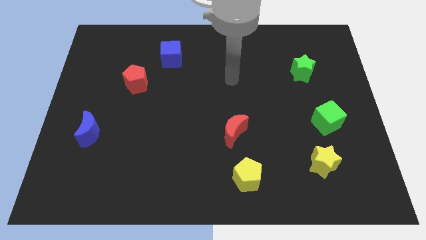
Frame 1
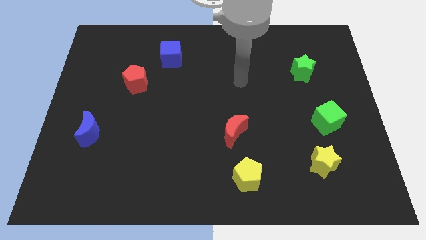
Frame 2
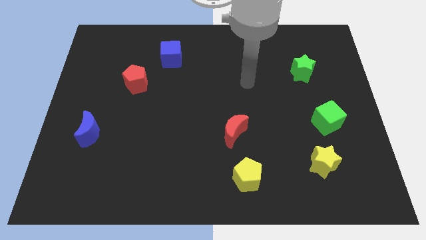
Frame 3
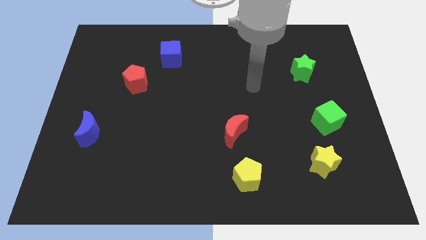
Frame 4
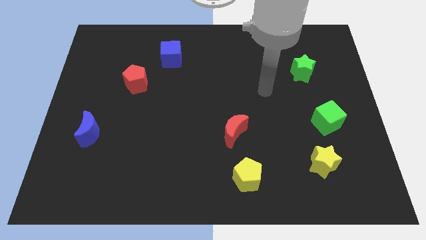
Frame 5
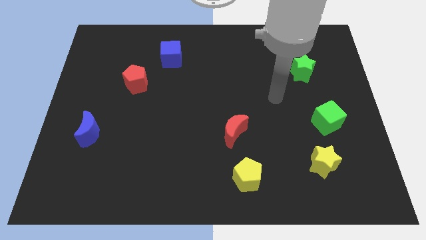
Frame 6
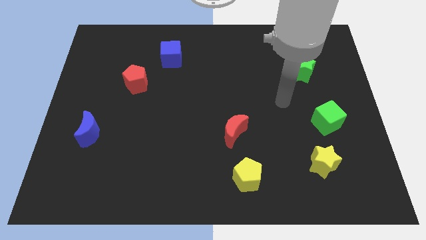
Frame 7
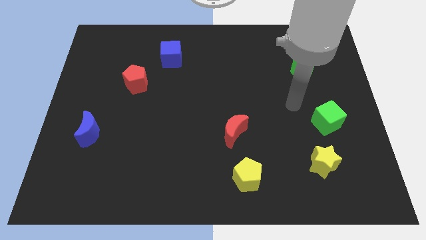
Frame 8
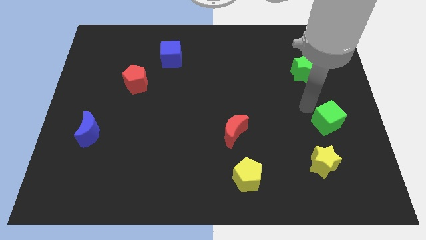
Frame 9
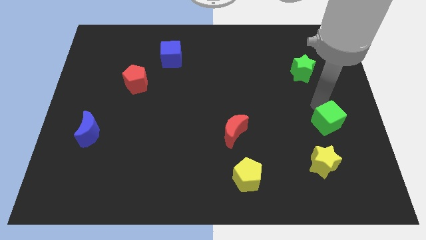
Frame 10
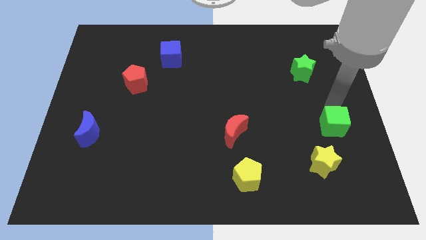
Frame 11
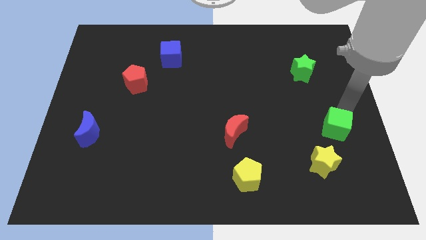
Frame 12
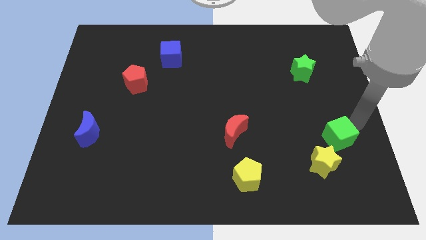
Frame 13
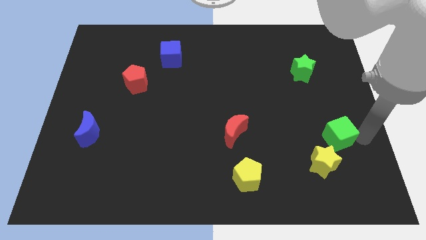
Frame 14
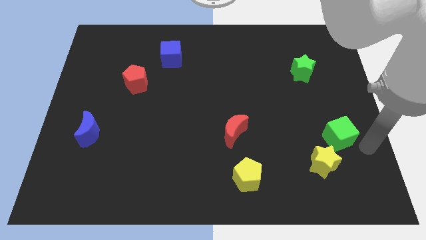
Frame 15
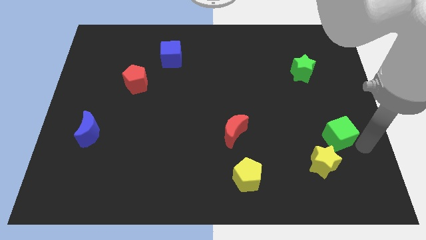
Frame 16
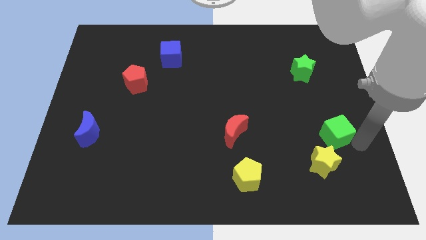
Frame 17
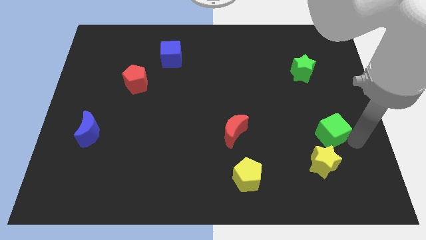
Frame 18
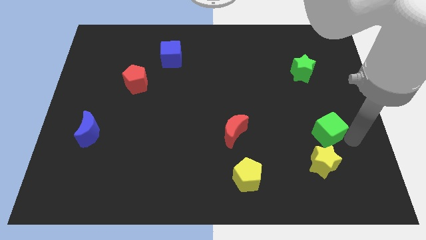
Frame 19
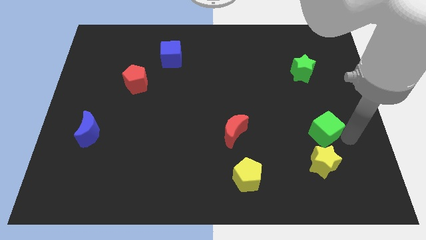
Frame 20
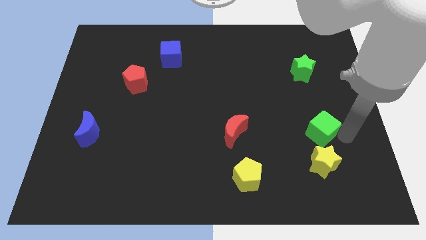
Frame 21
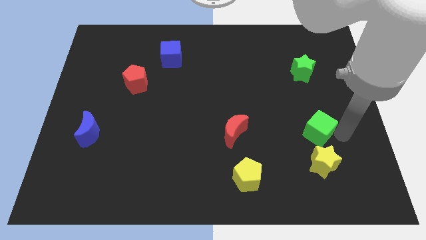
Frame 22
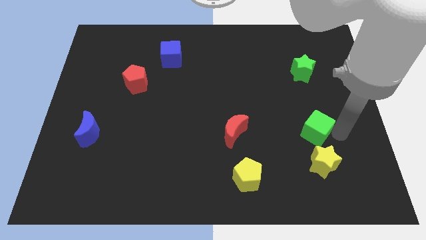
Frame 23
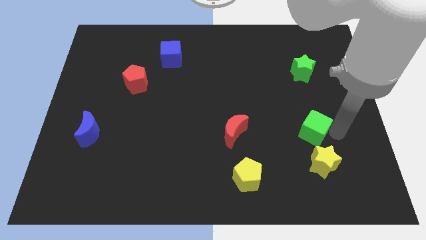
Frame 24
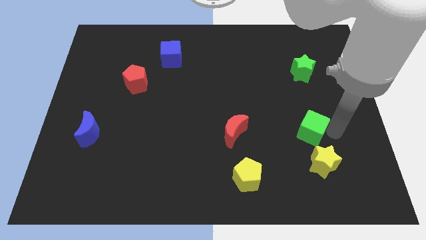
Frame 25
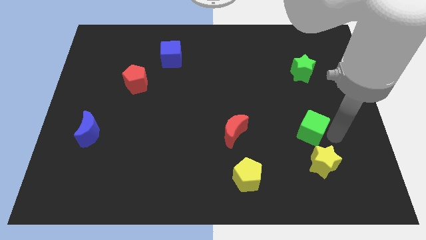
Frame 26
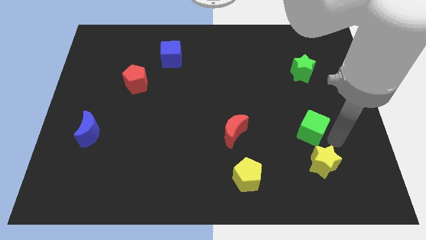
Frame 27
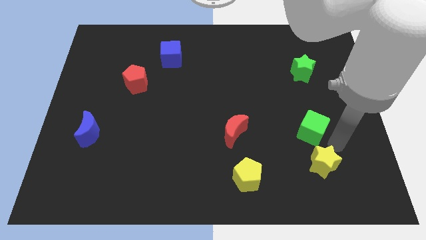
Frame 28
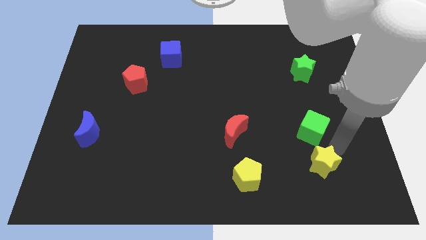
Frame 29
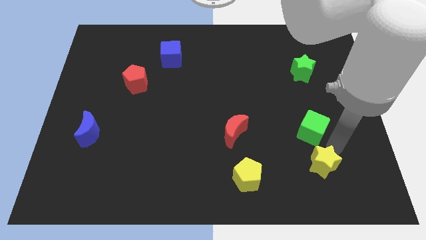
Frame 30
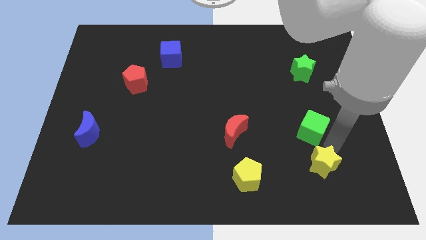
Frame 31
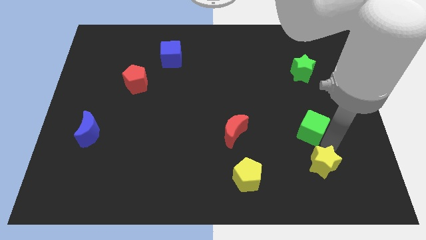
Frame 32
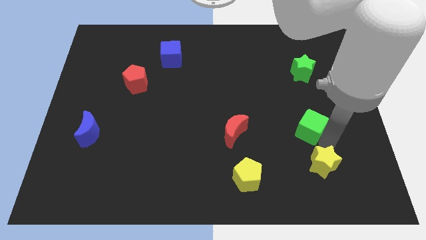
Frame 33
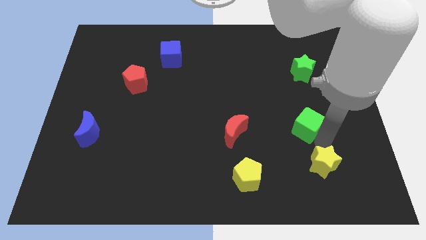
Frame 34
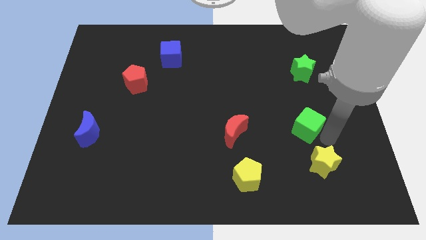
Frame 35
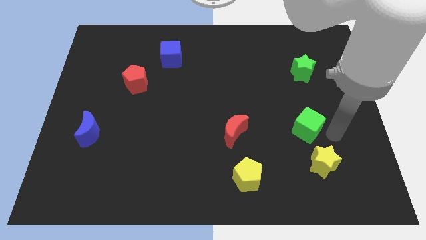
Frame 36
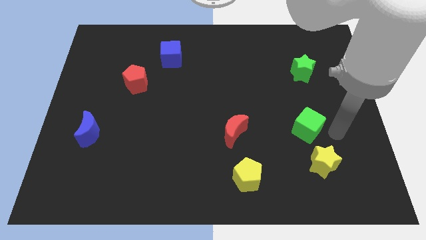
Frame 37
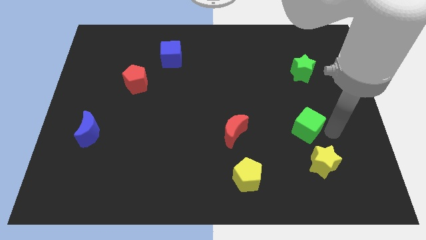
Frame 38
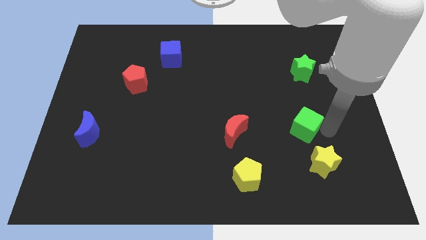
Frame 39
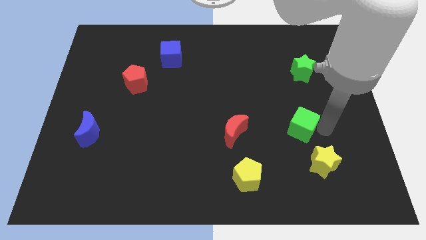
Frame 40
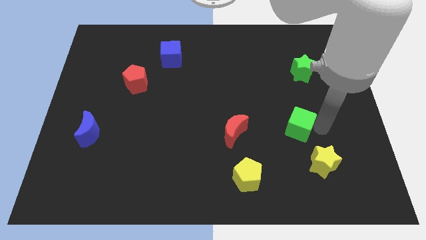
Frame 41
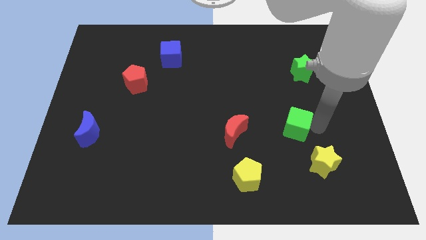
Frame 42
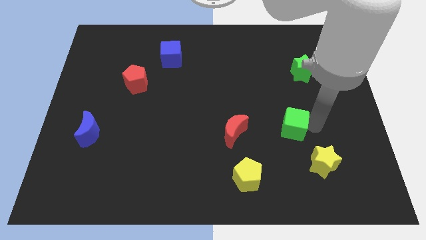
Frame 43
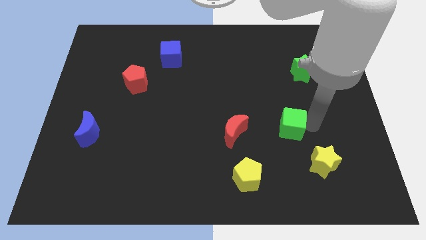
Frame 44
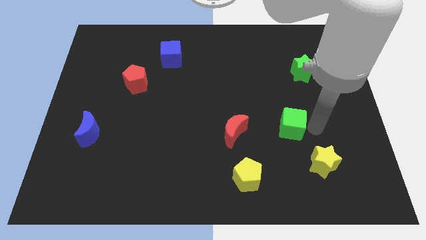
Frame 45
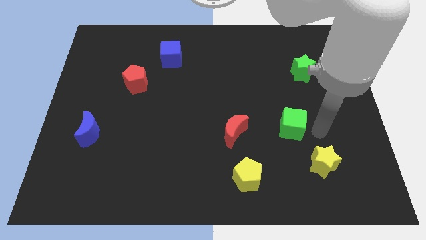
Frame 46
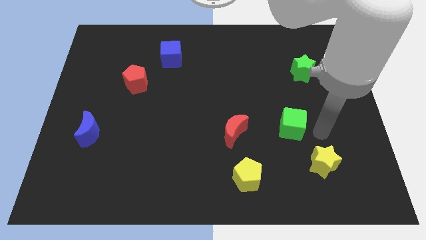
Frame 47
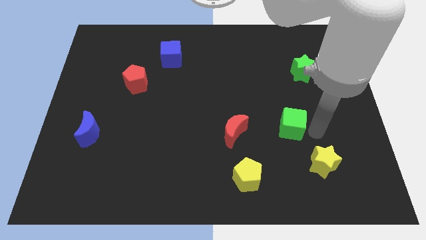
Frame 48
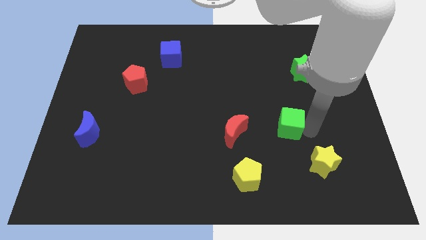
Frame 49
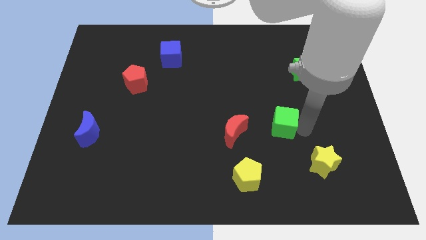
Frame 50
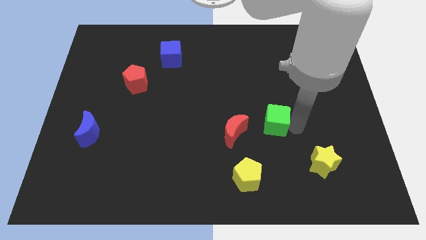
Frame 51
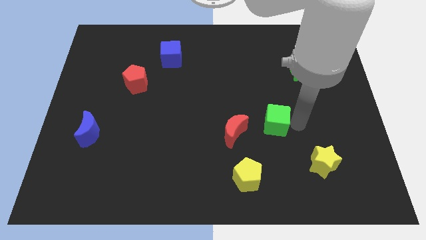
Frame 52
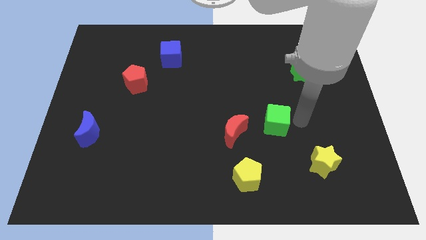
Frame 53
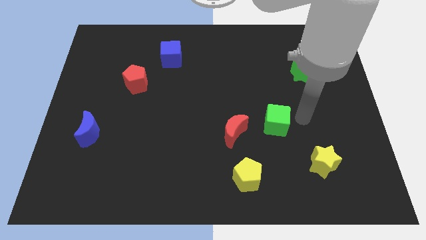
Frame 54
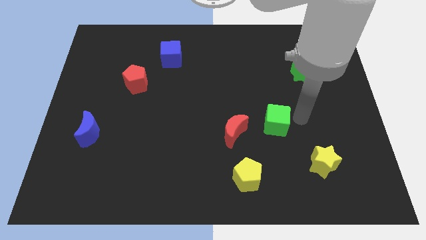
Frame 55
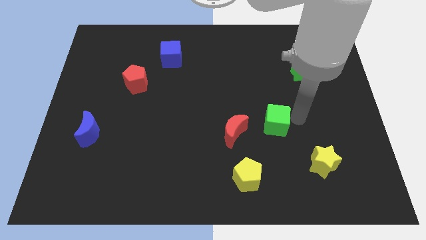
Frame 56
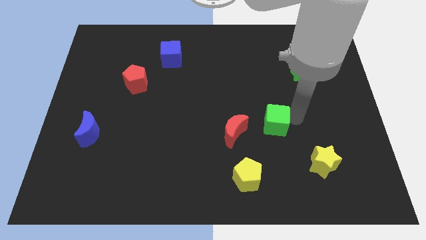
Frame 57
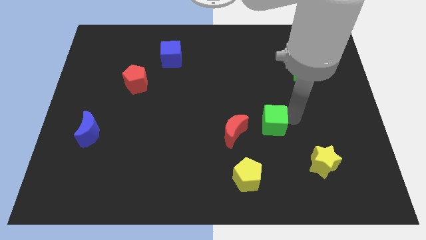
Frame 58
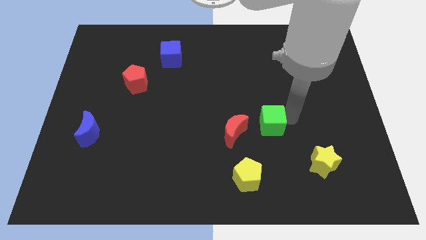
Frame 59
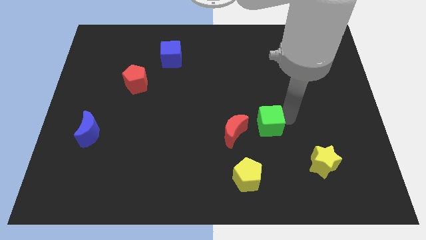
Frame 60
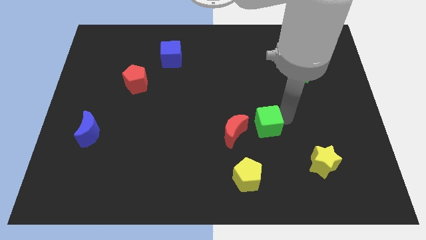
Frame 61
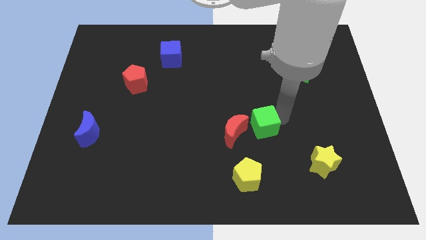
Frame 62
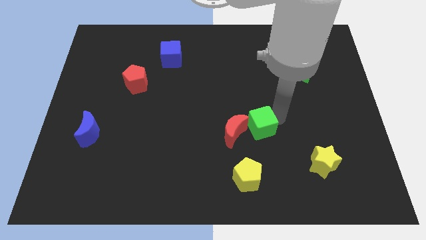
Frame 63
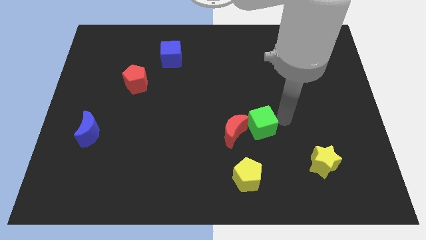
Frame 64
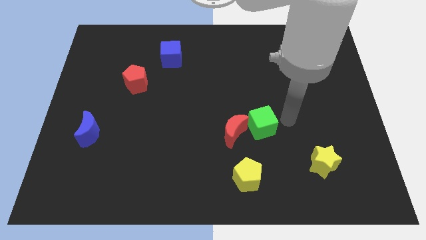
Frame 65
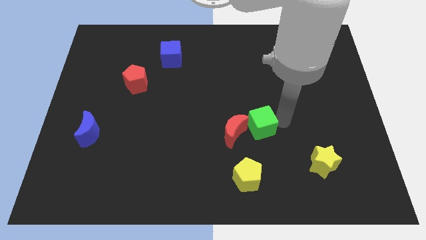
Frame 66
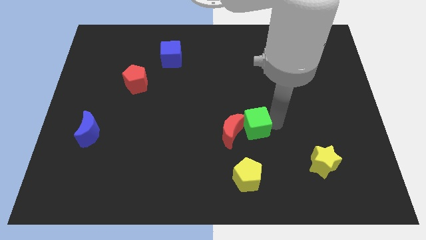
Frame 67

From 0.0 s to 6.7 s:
put the green cube next to the red moon

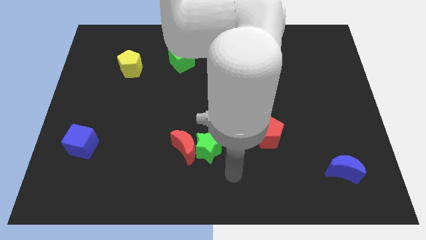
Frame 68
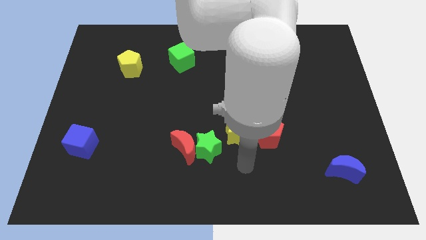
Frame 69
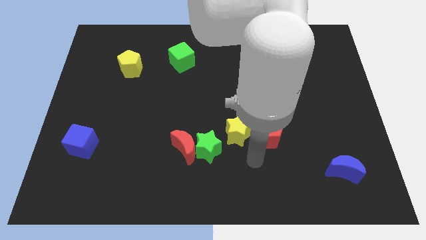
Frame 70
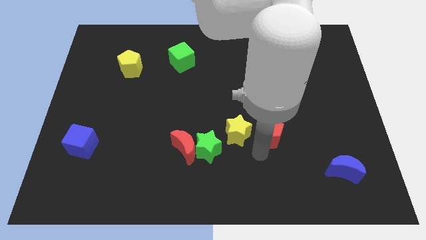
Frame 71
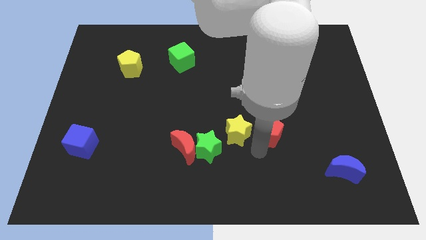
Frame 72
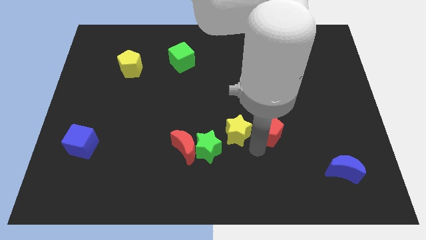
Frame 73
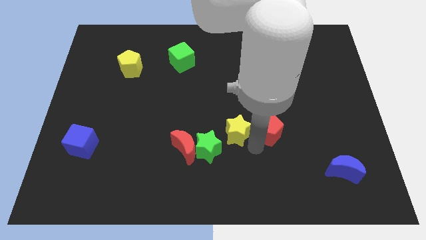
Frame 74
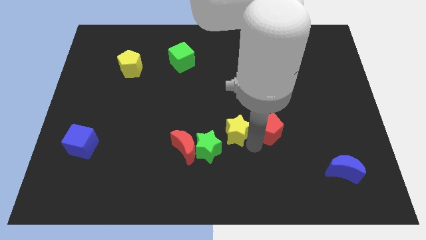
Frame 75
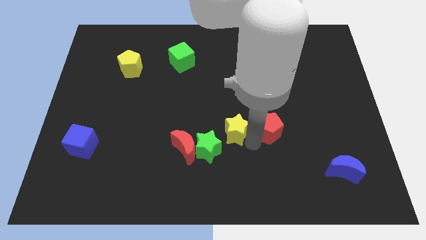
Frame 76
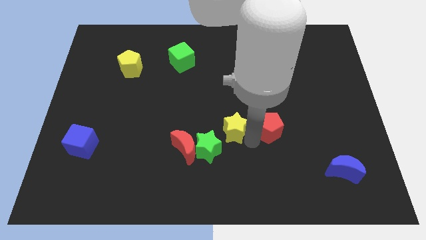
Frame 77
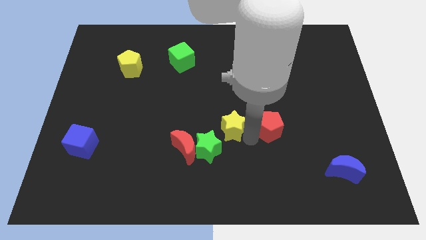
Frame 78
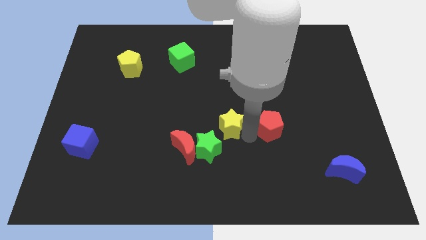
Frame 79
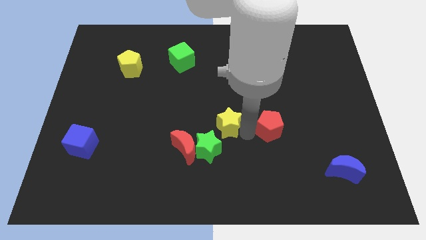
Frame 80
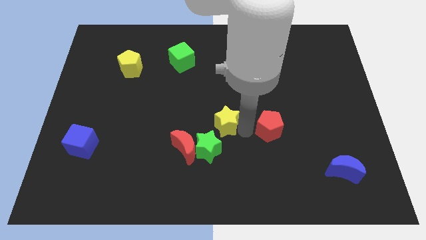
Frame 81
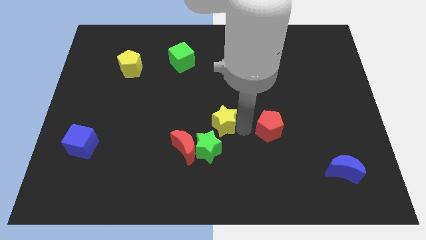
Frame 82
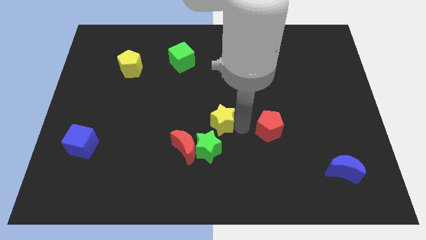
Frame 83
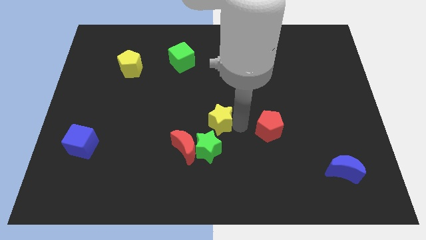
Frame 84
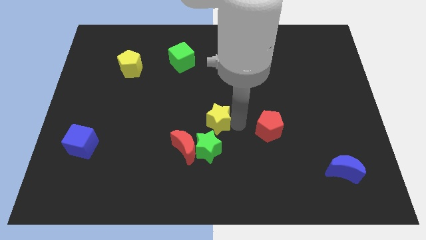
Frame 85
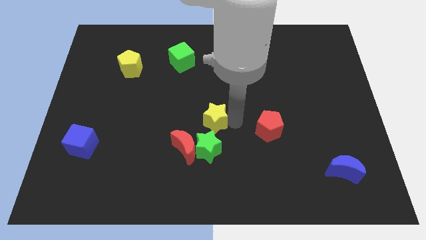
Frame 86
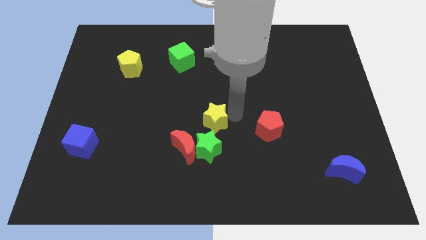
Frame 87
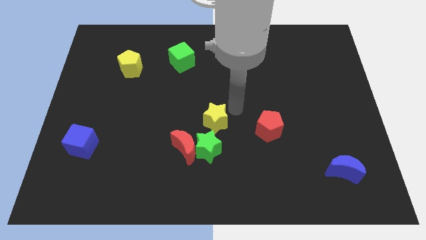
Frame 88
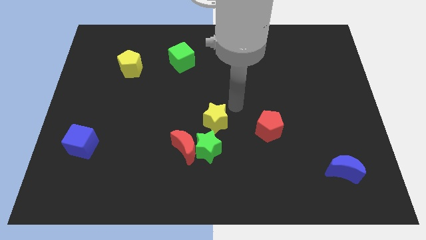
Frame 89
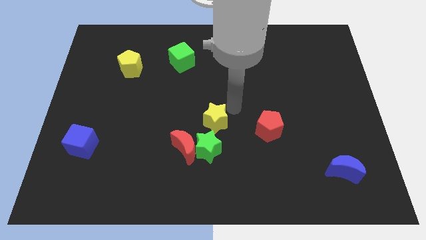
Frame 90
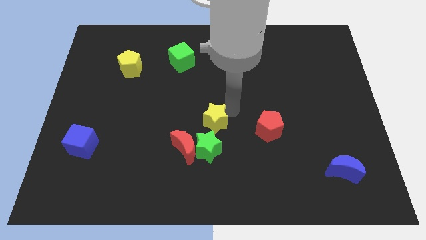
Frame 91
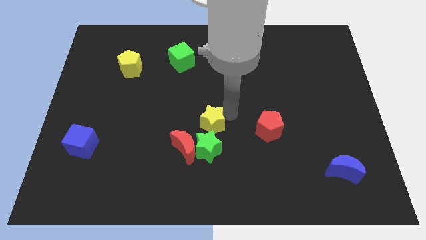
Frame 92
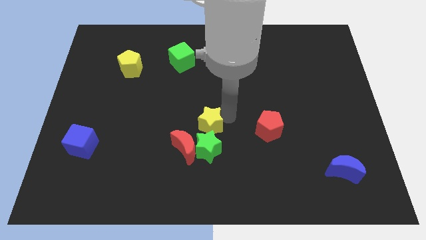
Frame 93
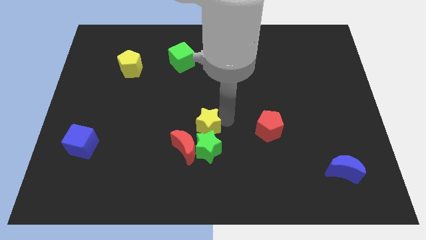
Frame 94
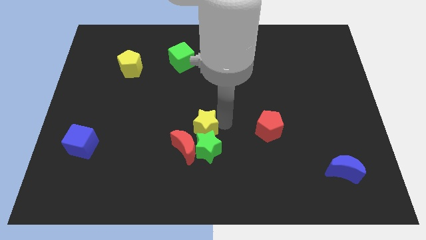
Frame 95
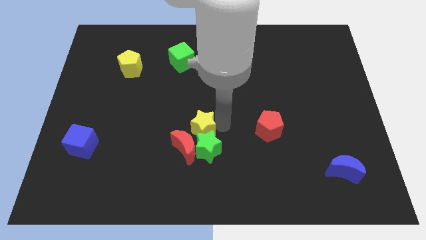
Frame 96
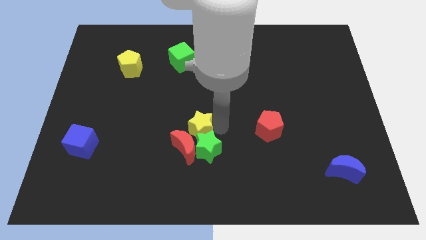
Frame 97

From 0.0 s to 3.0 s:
slide the yellow star towards the red moon
